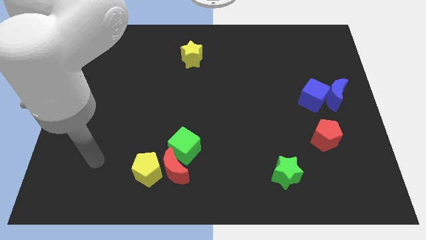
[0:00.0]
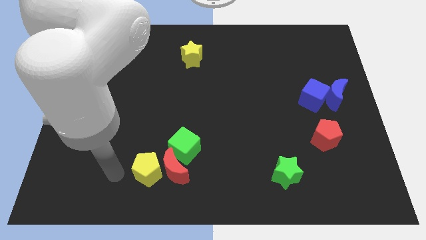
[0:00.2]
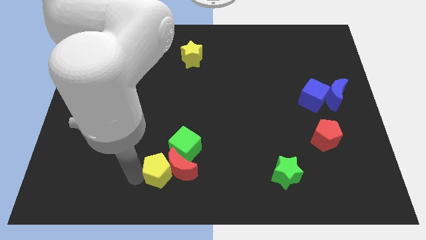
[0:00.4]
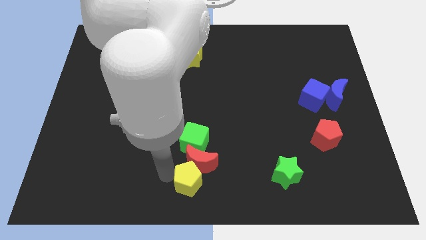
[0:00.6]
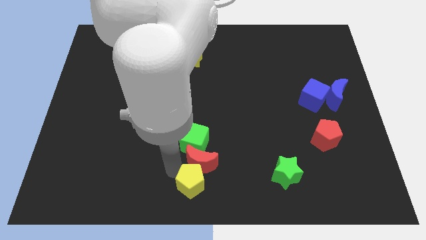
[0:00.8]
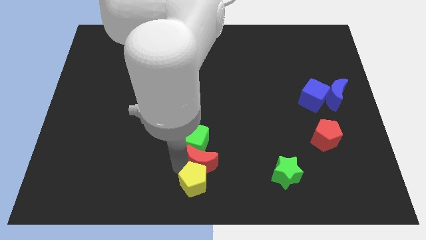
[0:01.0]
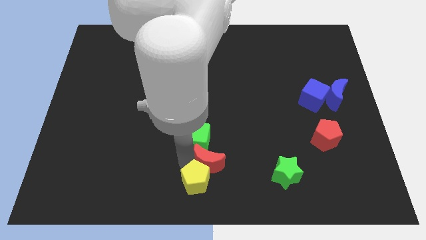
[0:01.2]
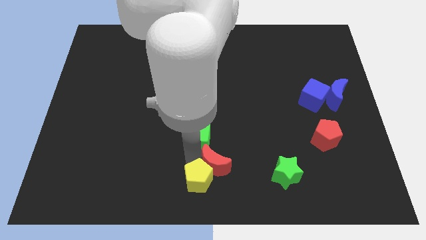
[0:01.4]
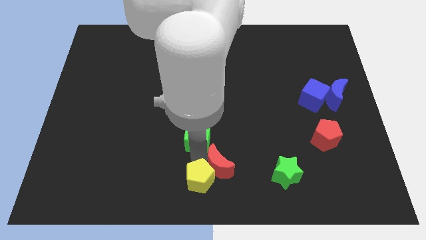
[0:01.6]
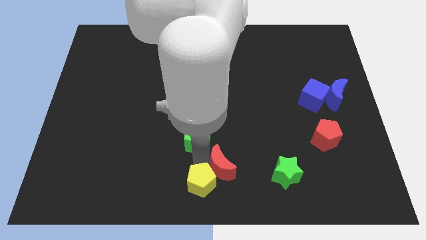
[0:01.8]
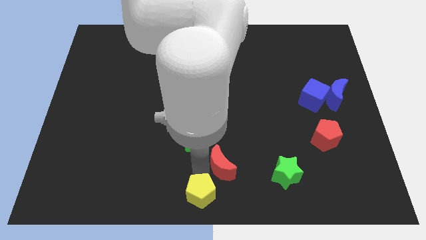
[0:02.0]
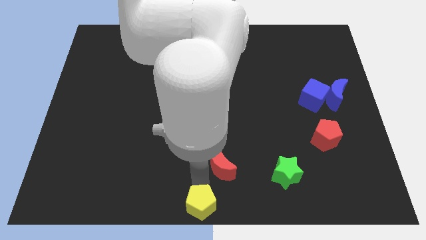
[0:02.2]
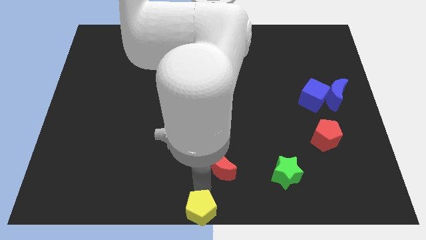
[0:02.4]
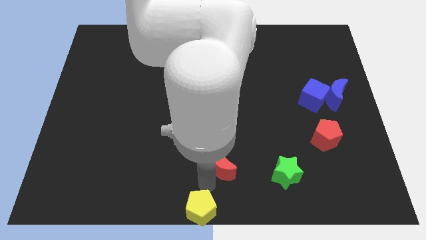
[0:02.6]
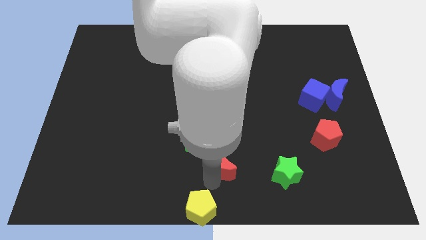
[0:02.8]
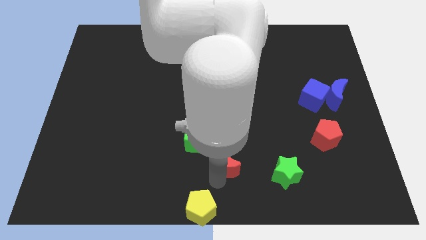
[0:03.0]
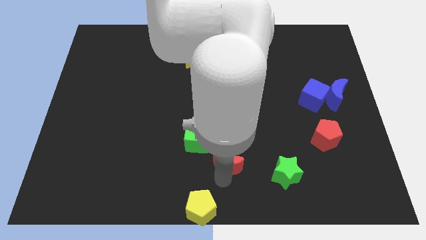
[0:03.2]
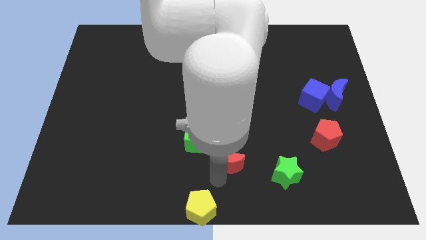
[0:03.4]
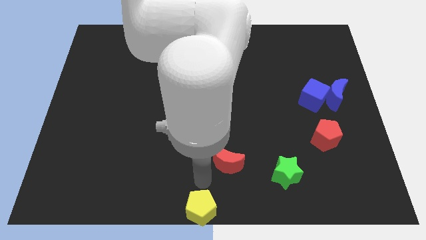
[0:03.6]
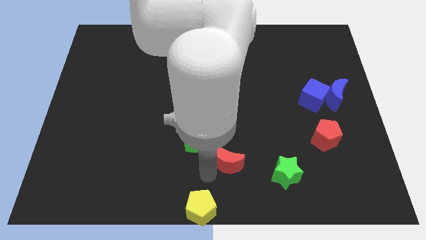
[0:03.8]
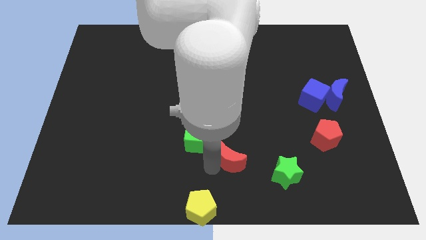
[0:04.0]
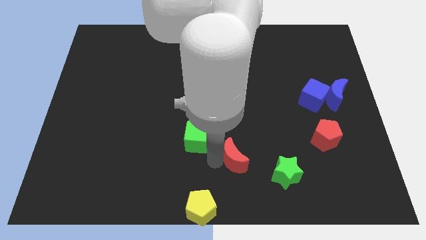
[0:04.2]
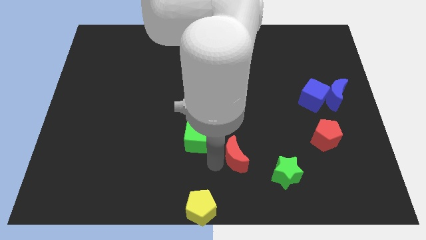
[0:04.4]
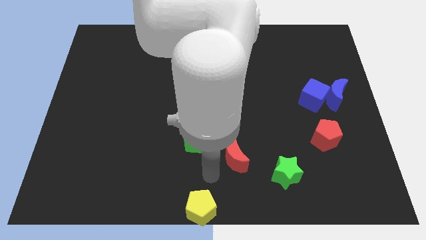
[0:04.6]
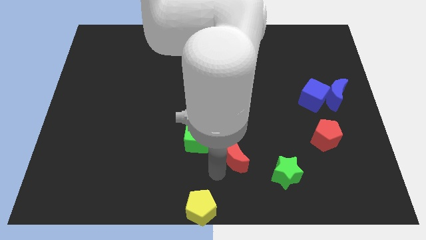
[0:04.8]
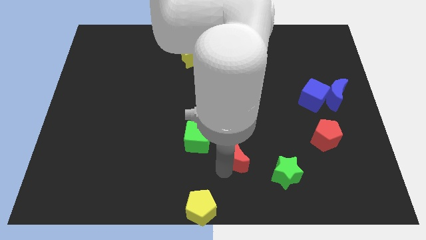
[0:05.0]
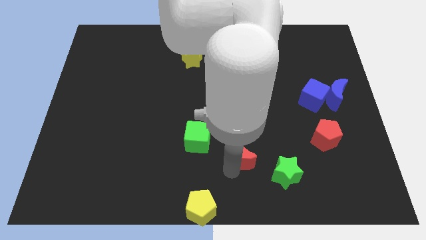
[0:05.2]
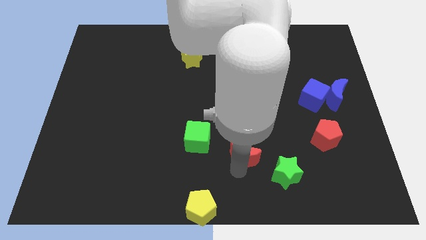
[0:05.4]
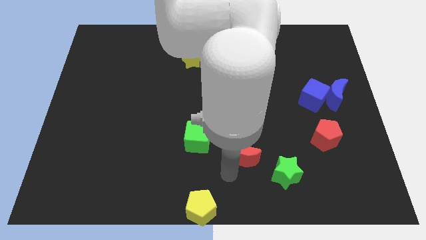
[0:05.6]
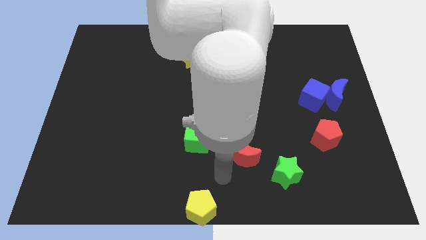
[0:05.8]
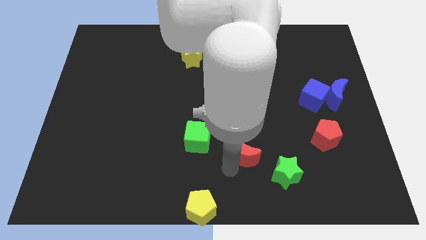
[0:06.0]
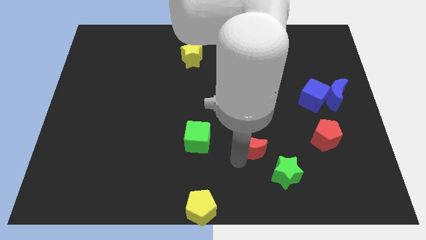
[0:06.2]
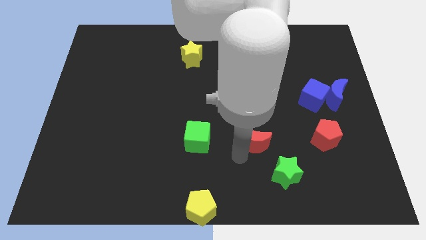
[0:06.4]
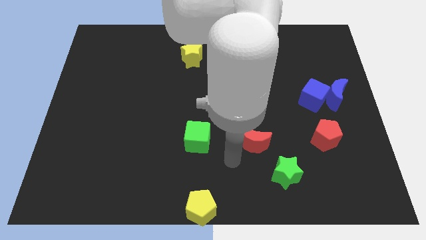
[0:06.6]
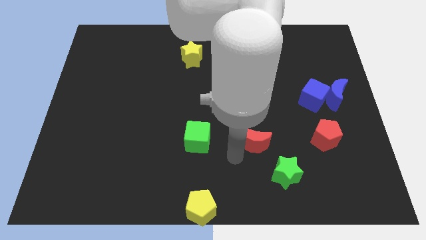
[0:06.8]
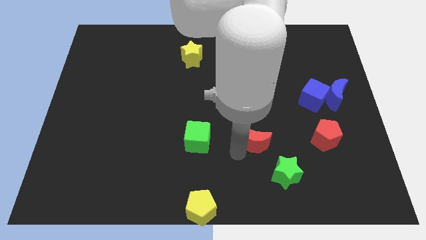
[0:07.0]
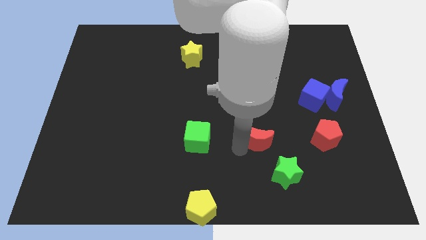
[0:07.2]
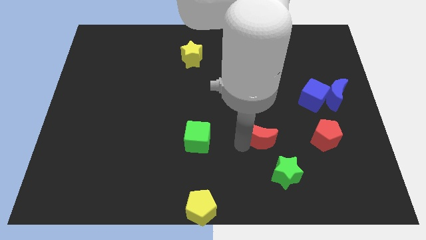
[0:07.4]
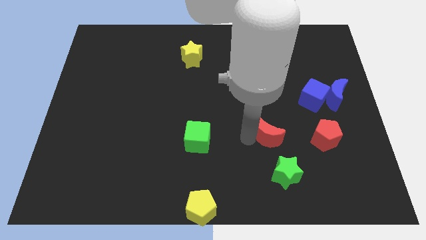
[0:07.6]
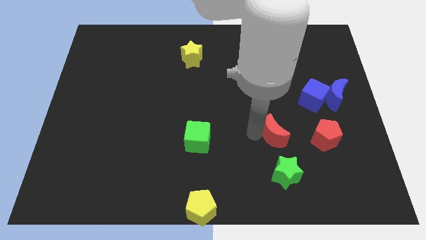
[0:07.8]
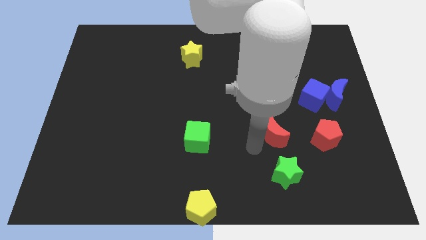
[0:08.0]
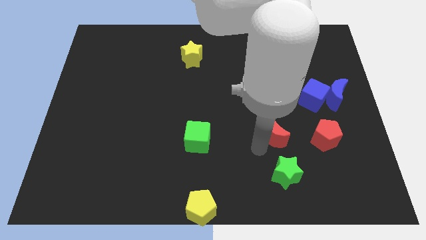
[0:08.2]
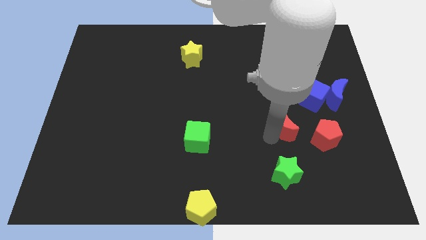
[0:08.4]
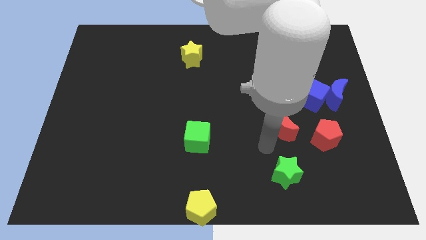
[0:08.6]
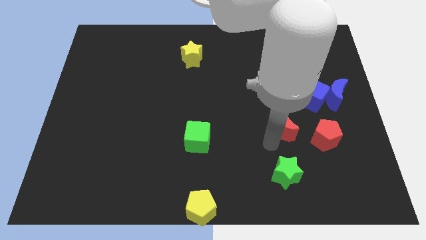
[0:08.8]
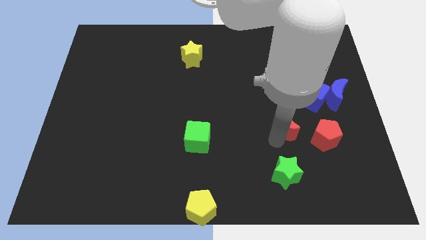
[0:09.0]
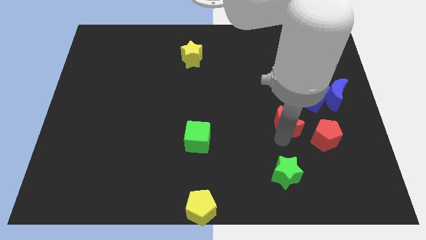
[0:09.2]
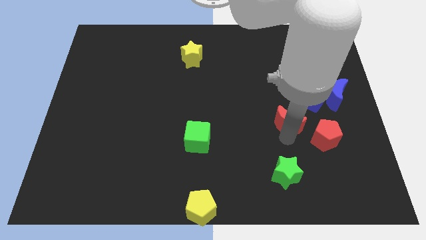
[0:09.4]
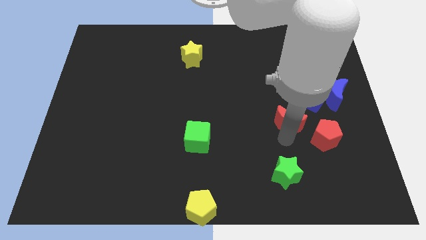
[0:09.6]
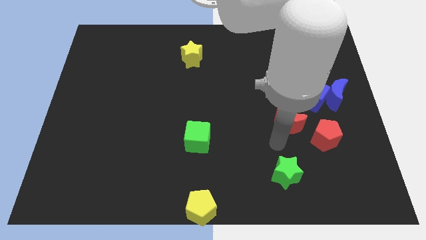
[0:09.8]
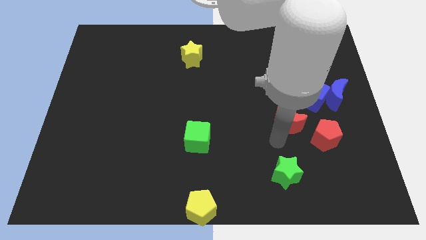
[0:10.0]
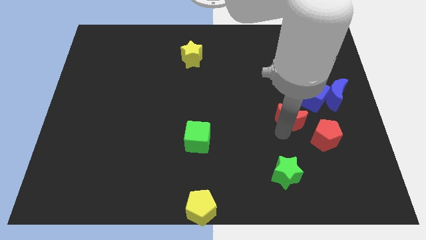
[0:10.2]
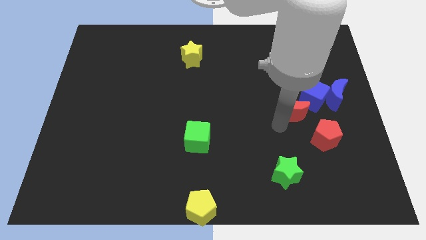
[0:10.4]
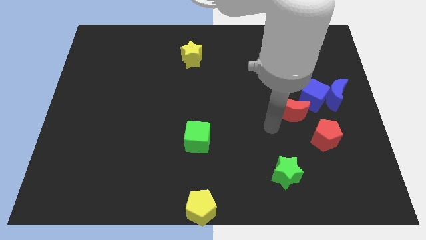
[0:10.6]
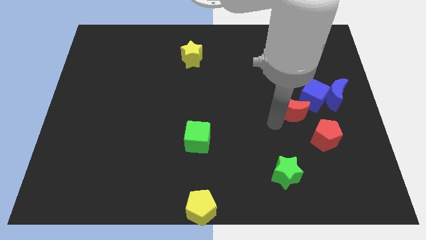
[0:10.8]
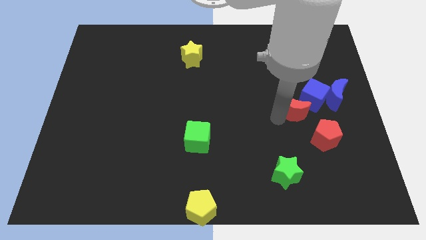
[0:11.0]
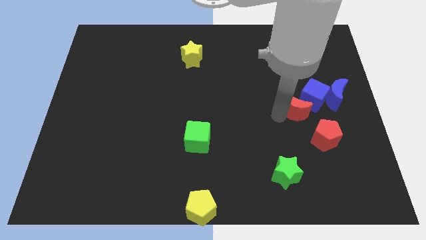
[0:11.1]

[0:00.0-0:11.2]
move the red moon close to the blue cube

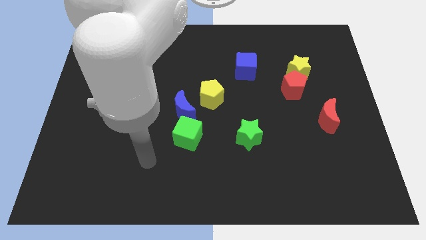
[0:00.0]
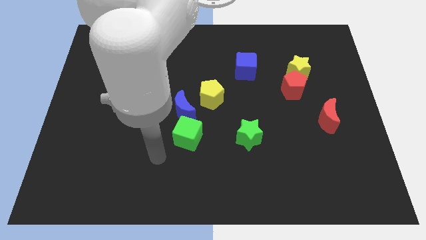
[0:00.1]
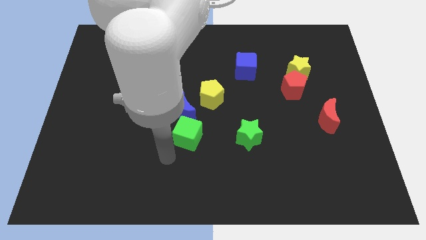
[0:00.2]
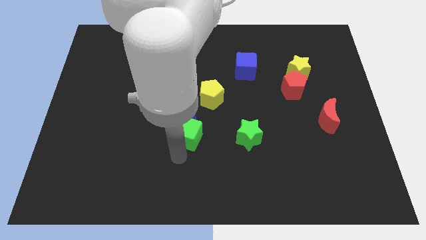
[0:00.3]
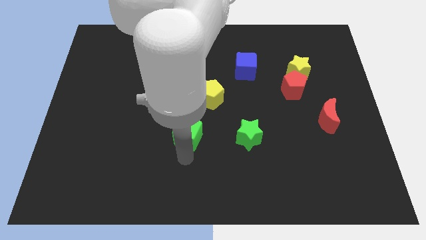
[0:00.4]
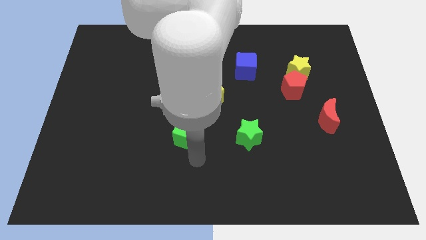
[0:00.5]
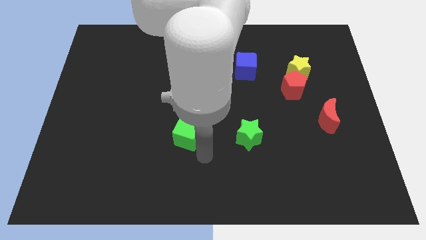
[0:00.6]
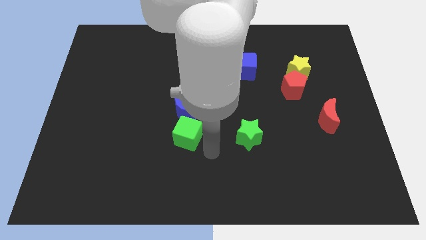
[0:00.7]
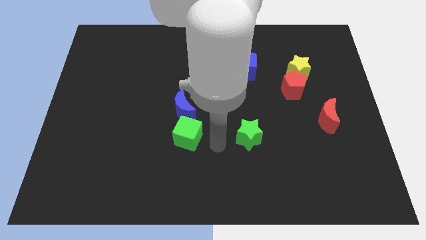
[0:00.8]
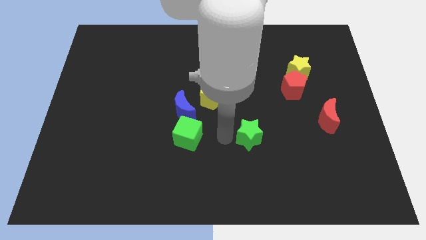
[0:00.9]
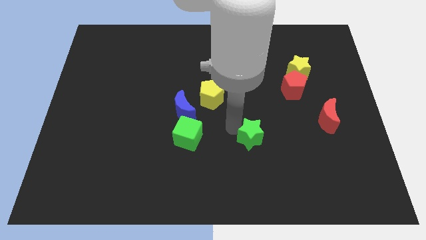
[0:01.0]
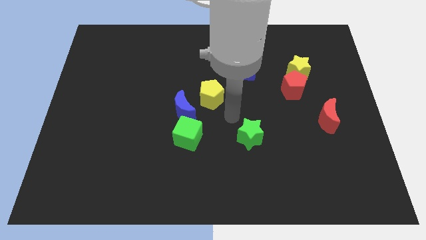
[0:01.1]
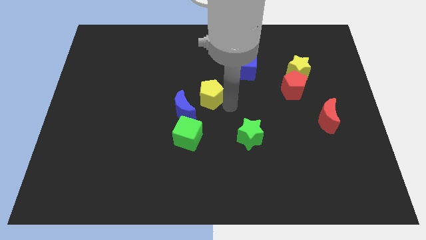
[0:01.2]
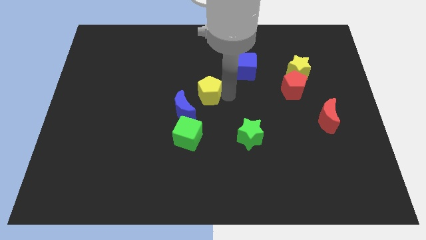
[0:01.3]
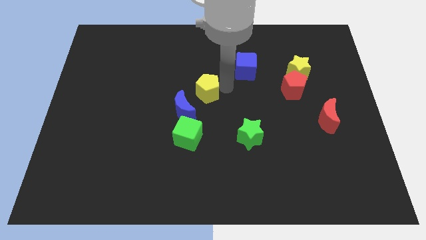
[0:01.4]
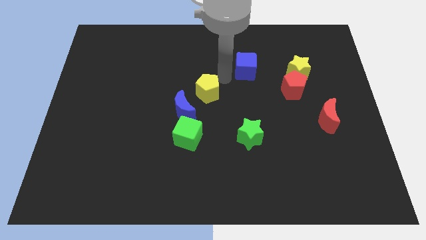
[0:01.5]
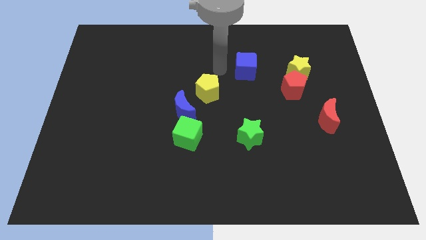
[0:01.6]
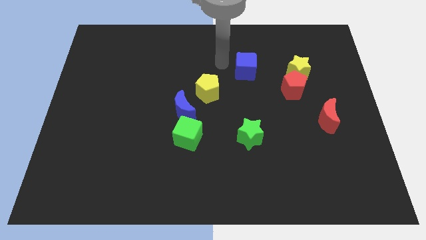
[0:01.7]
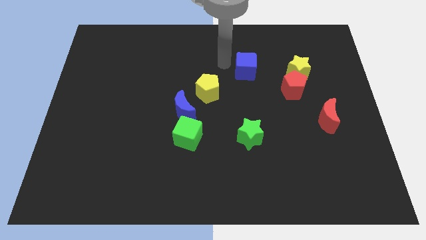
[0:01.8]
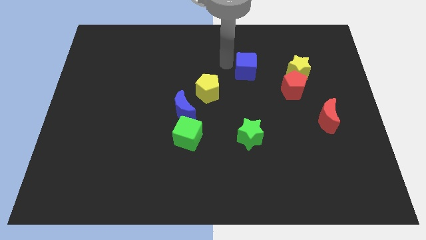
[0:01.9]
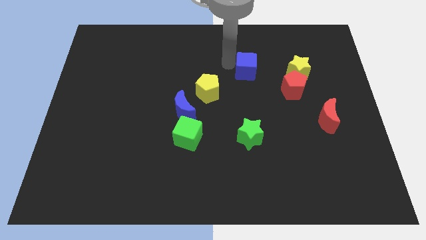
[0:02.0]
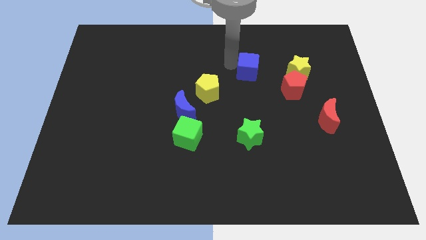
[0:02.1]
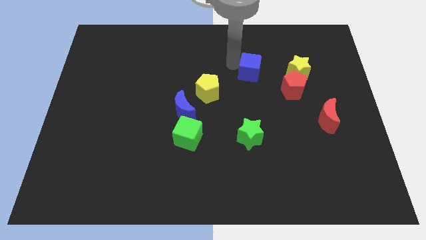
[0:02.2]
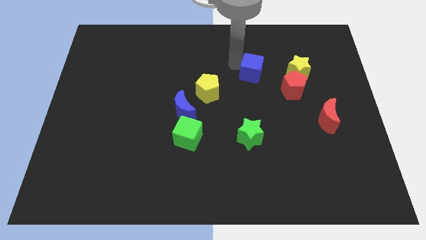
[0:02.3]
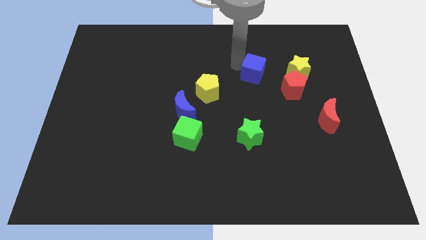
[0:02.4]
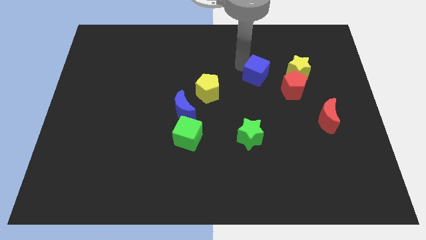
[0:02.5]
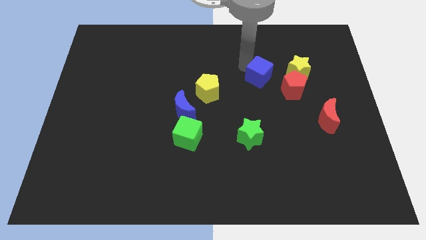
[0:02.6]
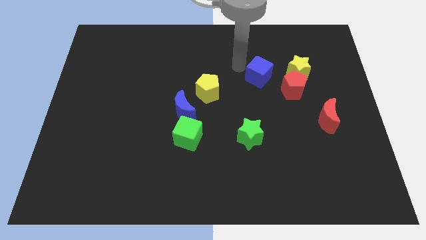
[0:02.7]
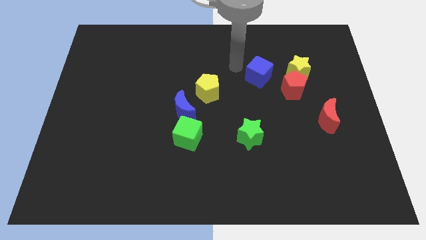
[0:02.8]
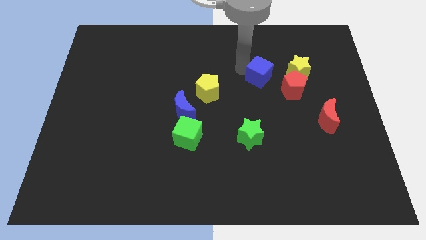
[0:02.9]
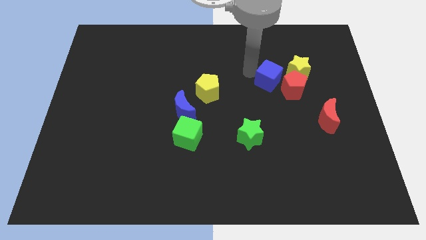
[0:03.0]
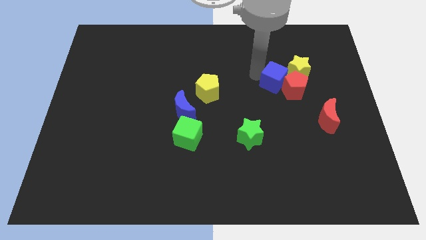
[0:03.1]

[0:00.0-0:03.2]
move the blue cube close to the red pentagon
